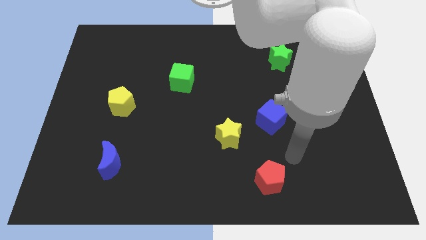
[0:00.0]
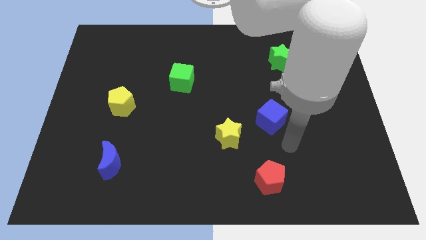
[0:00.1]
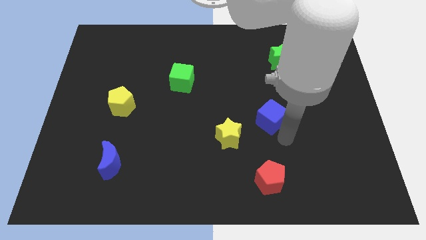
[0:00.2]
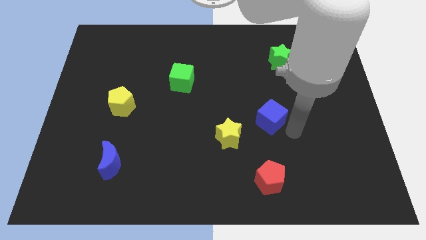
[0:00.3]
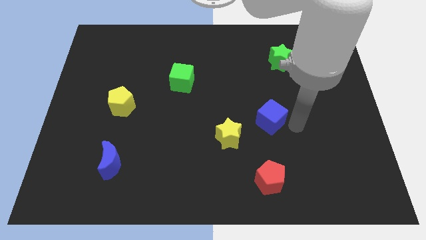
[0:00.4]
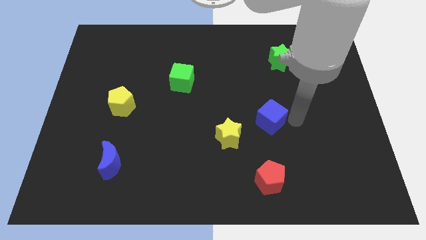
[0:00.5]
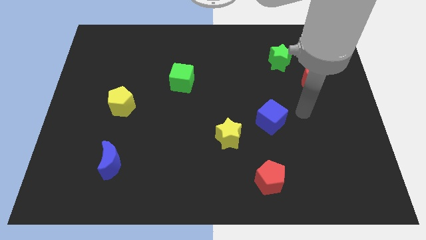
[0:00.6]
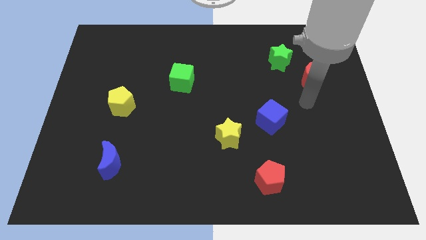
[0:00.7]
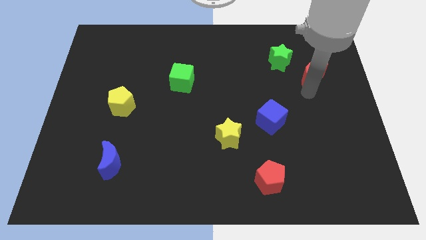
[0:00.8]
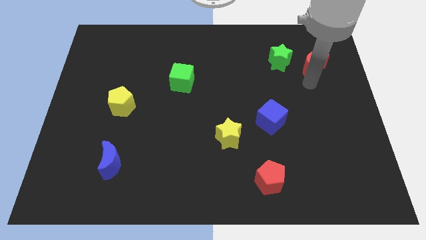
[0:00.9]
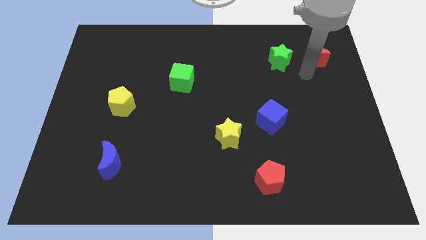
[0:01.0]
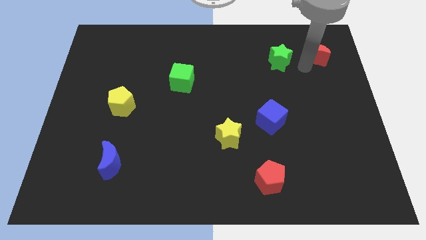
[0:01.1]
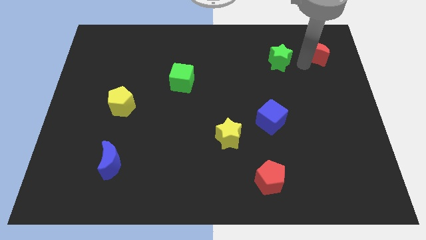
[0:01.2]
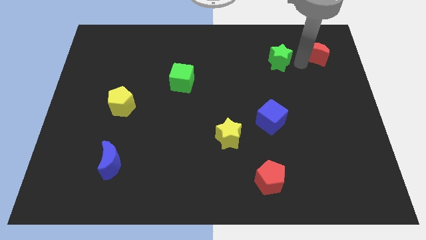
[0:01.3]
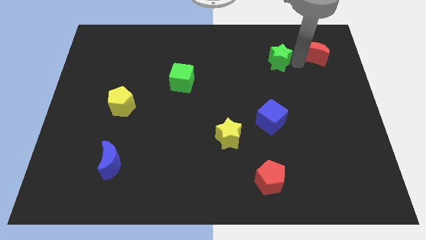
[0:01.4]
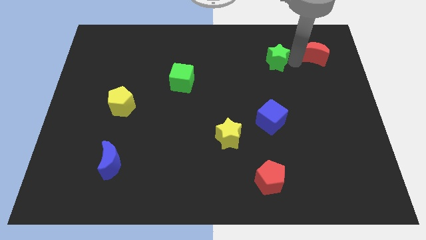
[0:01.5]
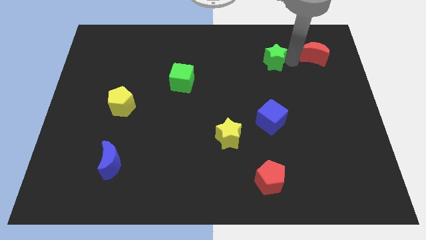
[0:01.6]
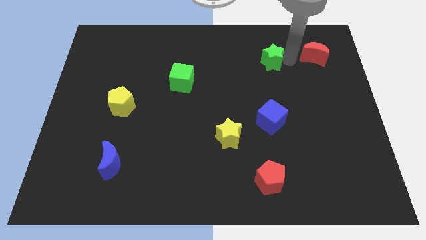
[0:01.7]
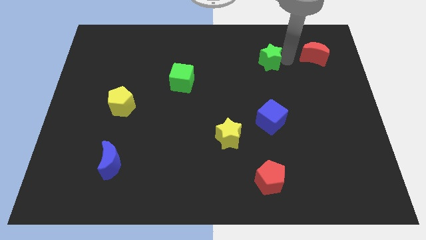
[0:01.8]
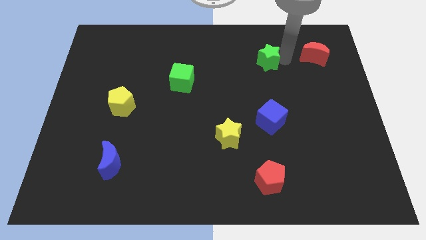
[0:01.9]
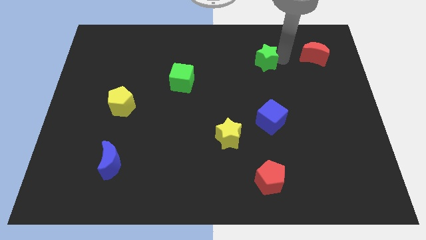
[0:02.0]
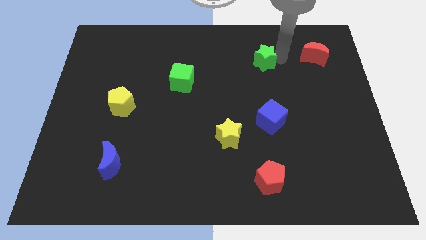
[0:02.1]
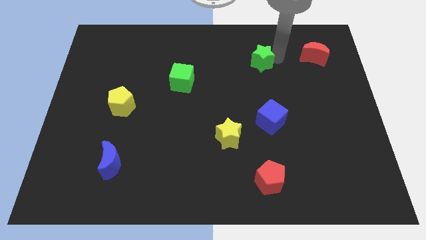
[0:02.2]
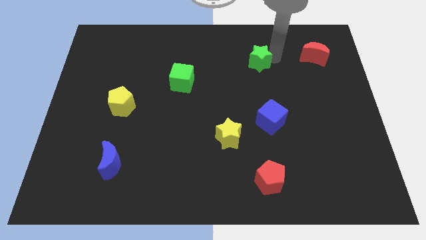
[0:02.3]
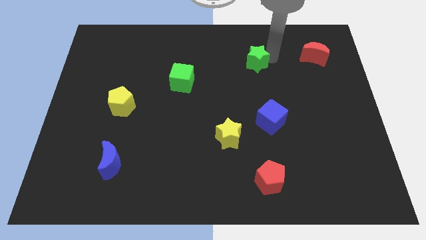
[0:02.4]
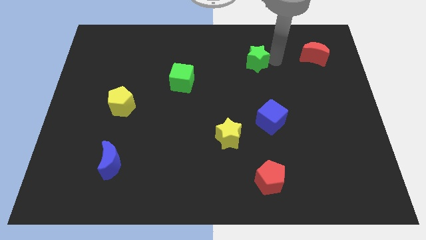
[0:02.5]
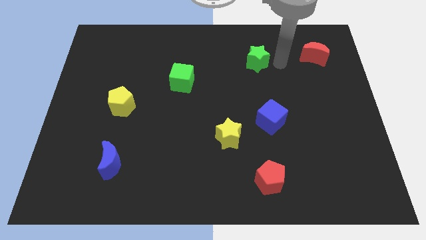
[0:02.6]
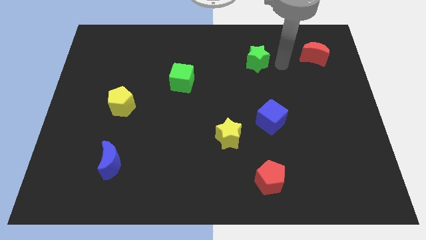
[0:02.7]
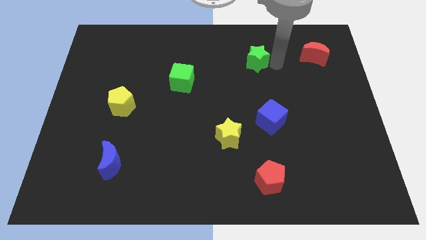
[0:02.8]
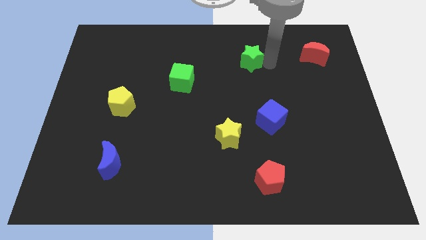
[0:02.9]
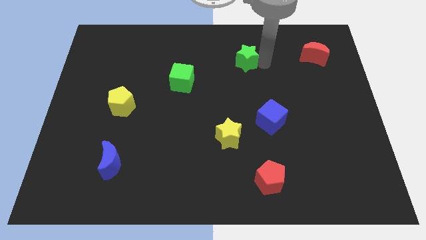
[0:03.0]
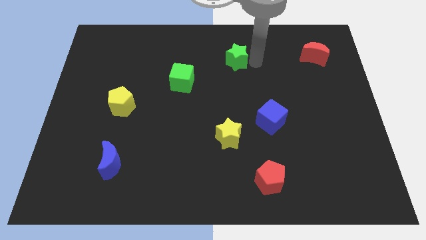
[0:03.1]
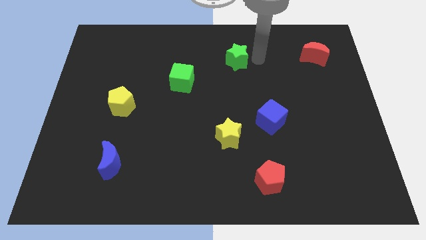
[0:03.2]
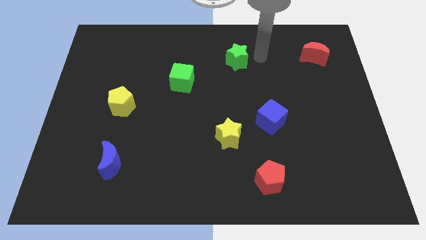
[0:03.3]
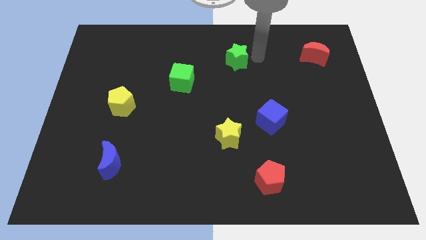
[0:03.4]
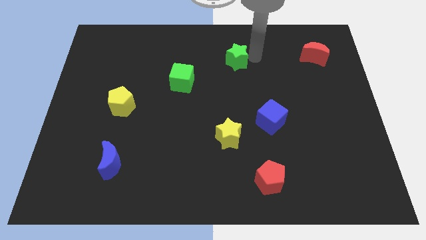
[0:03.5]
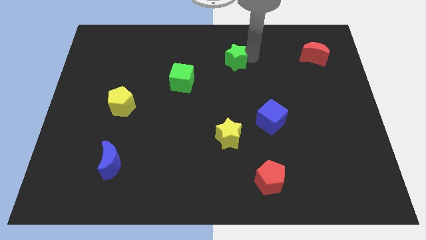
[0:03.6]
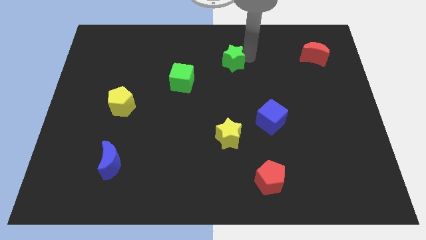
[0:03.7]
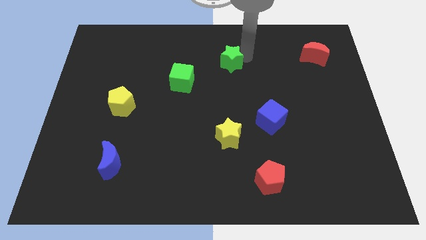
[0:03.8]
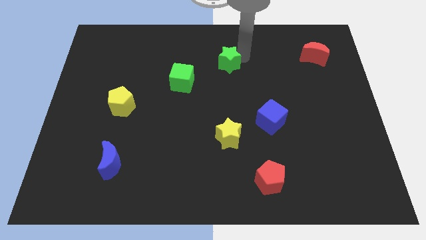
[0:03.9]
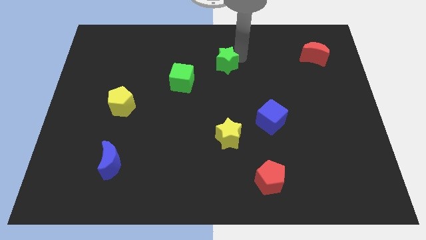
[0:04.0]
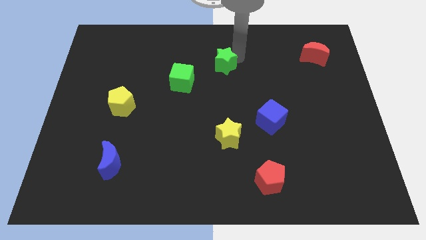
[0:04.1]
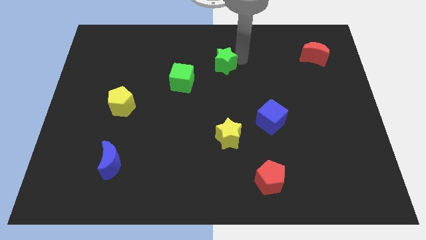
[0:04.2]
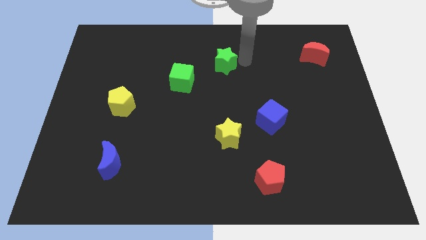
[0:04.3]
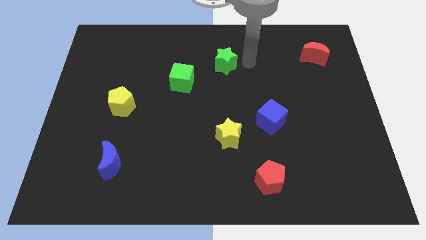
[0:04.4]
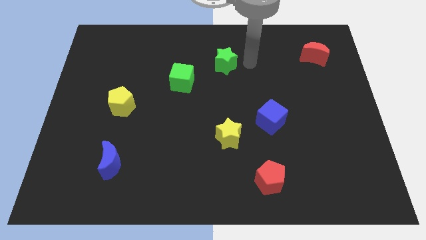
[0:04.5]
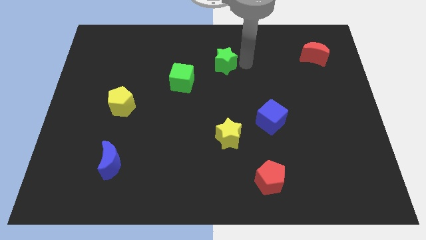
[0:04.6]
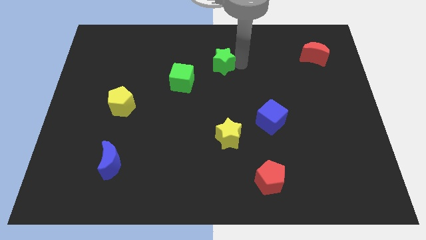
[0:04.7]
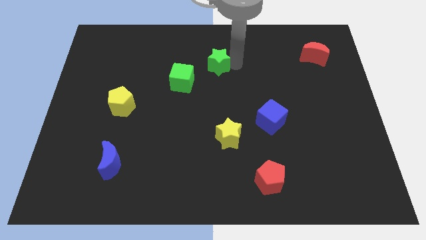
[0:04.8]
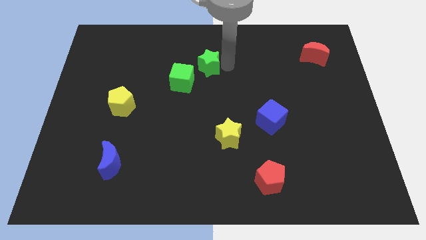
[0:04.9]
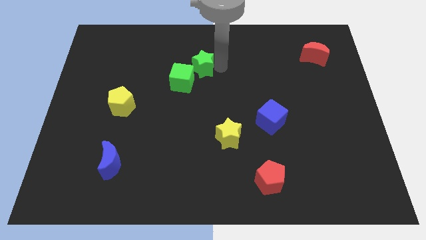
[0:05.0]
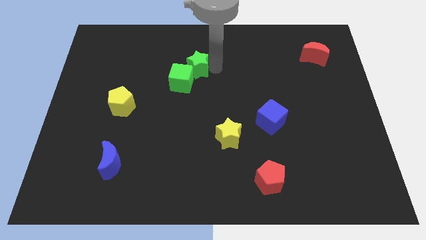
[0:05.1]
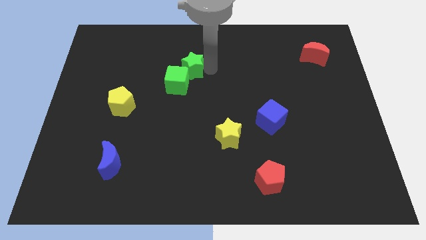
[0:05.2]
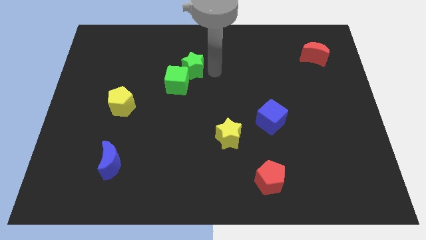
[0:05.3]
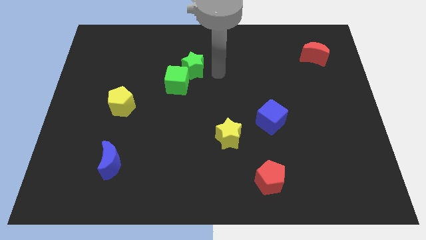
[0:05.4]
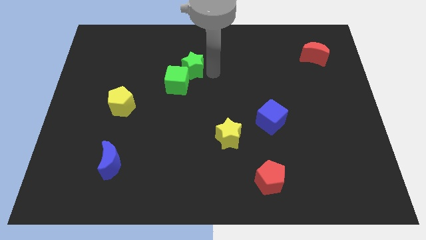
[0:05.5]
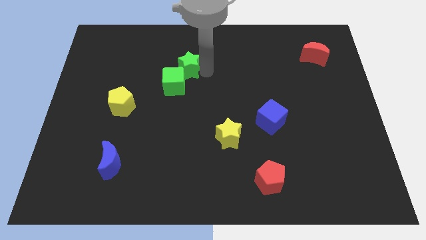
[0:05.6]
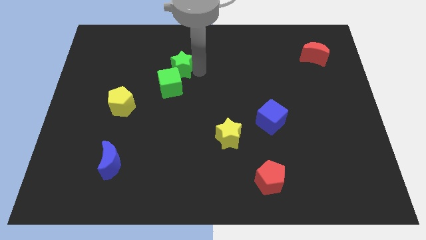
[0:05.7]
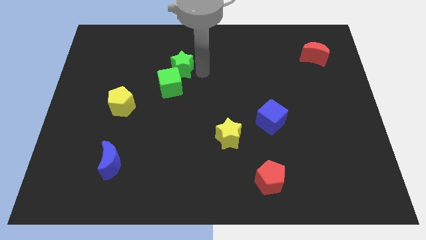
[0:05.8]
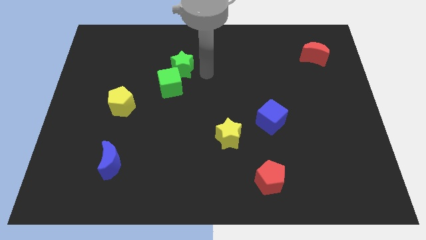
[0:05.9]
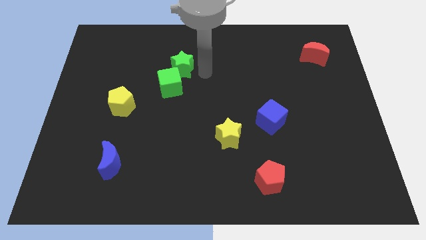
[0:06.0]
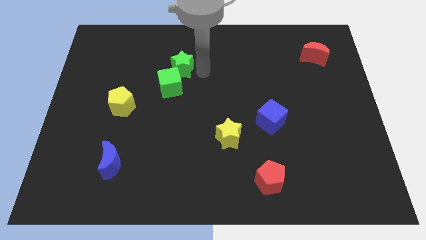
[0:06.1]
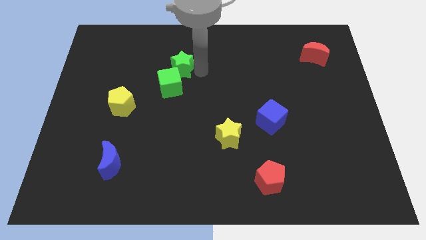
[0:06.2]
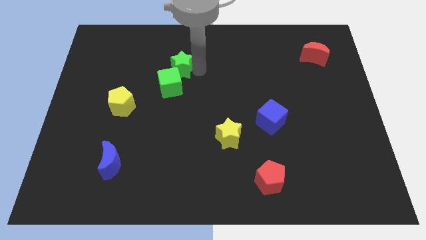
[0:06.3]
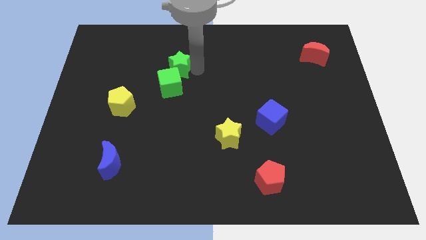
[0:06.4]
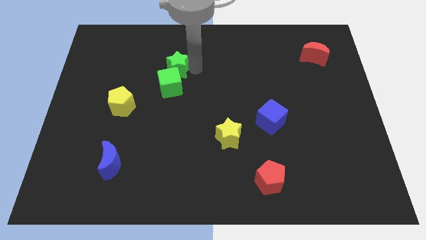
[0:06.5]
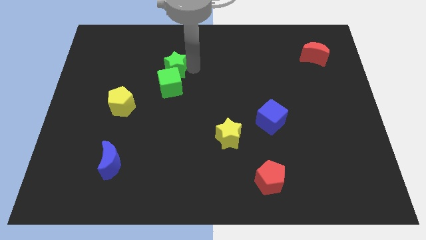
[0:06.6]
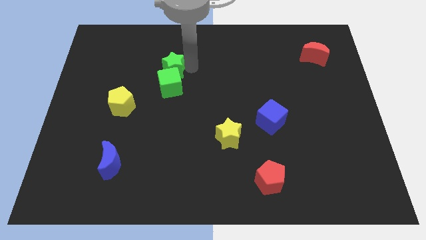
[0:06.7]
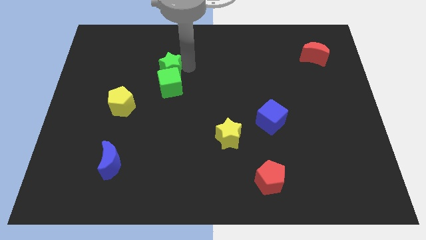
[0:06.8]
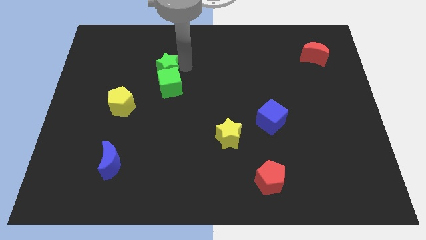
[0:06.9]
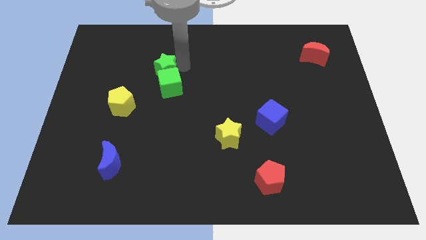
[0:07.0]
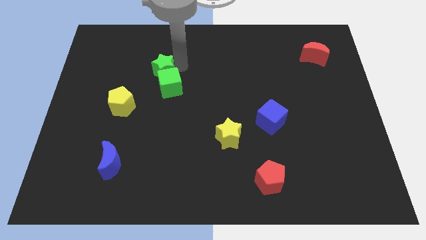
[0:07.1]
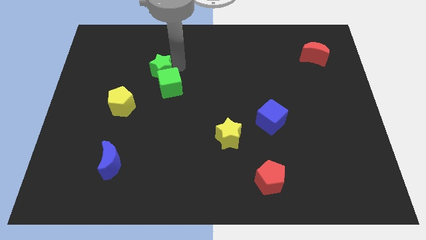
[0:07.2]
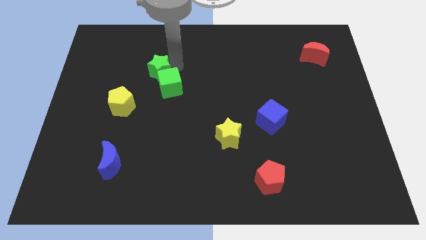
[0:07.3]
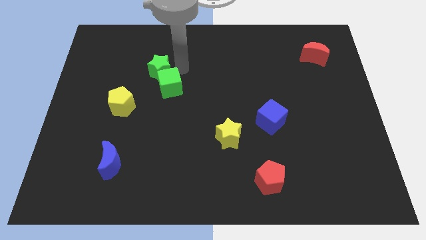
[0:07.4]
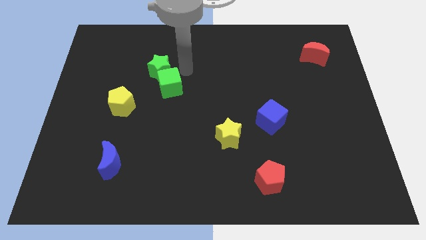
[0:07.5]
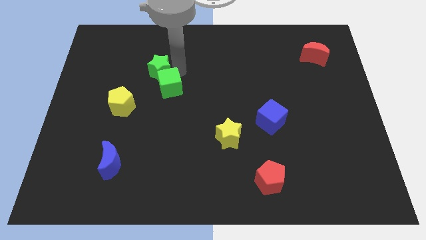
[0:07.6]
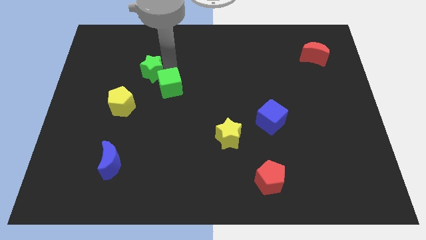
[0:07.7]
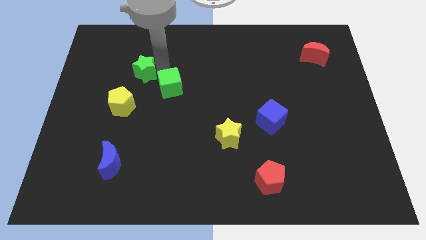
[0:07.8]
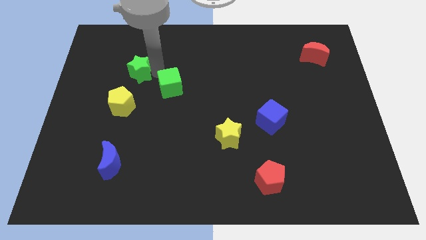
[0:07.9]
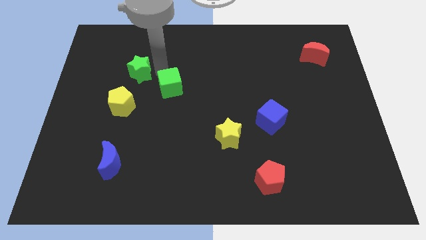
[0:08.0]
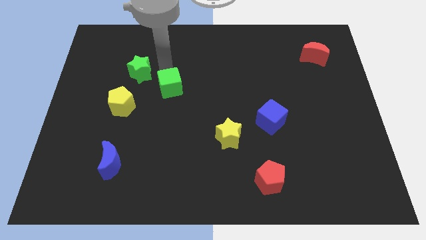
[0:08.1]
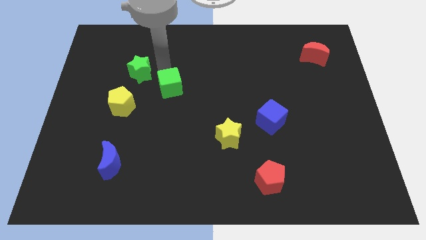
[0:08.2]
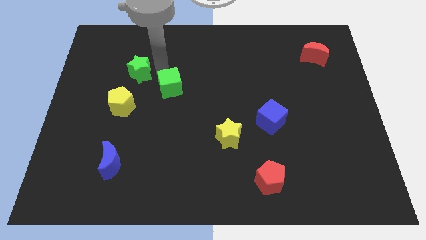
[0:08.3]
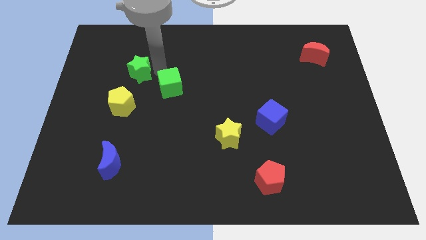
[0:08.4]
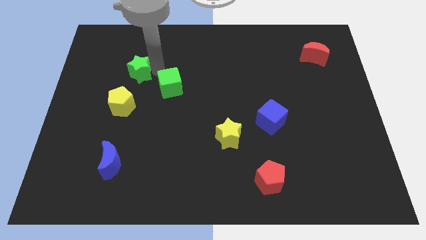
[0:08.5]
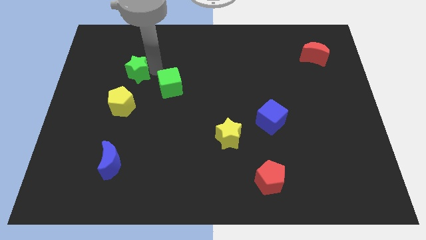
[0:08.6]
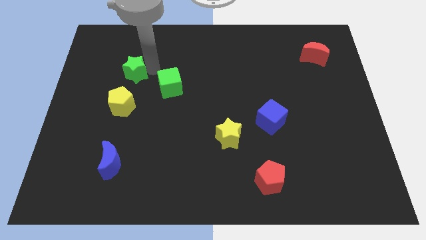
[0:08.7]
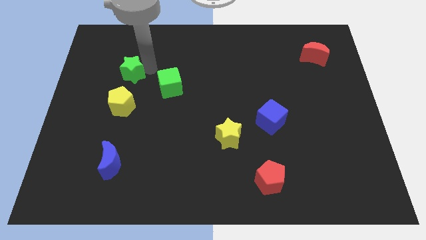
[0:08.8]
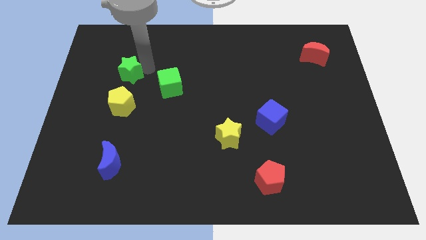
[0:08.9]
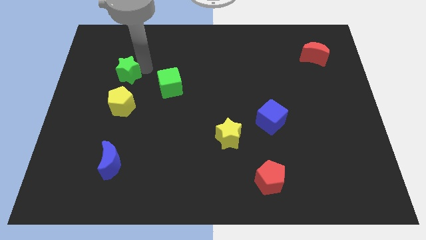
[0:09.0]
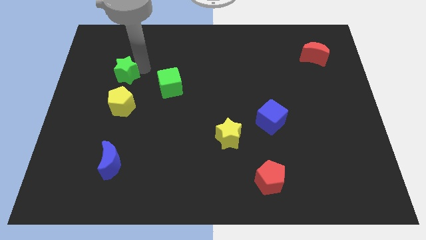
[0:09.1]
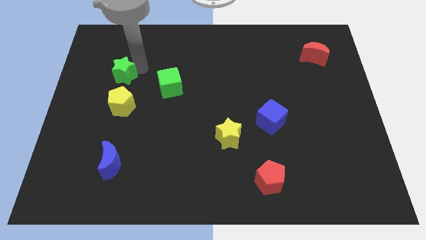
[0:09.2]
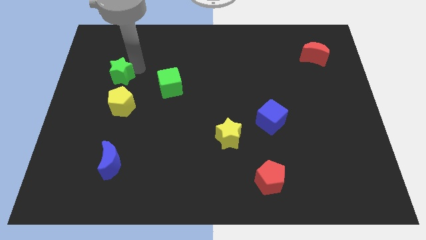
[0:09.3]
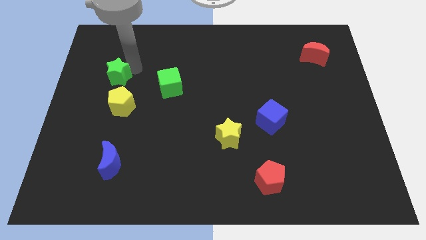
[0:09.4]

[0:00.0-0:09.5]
move the green star to the top left of the yellow pentagon
